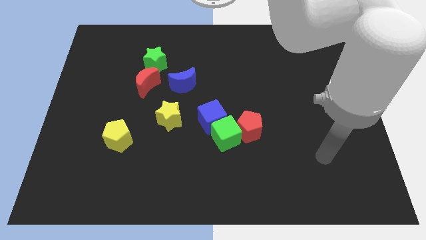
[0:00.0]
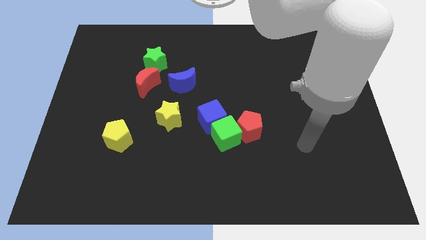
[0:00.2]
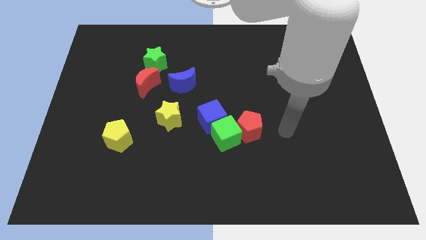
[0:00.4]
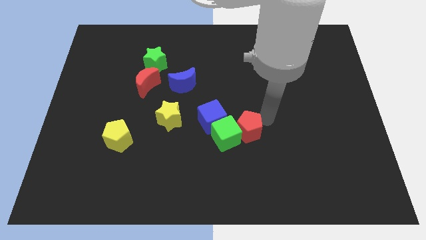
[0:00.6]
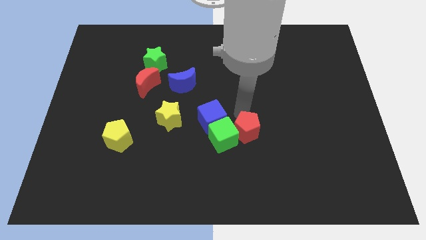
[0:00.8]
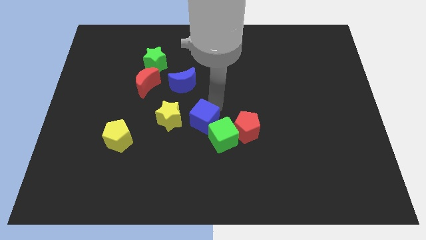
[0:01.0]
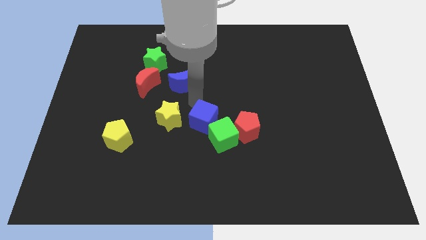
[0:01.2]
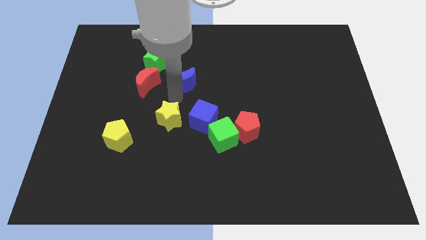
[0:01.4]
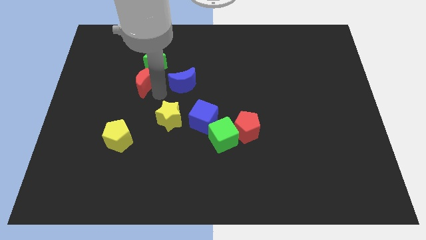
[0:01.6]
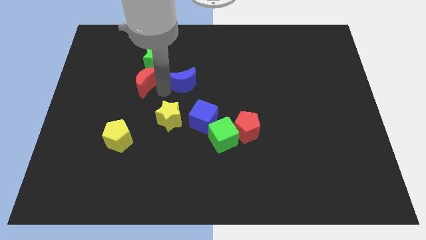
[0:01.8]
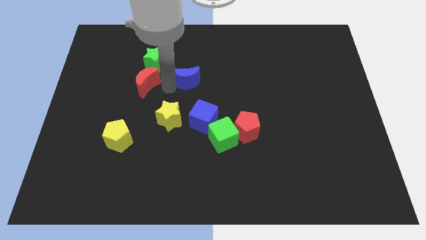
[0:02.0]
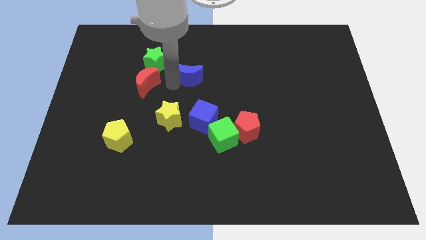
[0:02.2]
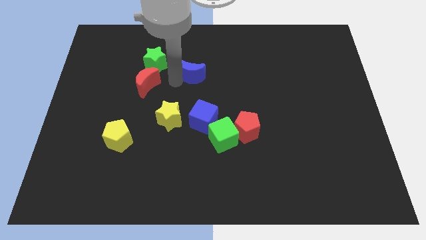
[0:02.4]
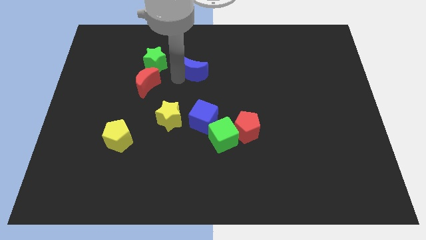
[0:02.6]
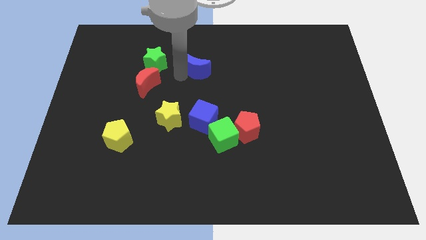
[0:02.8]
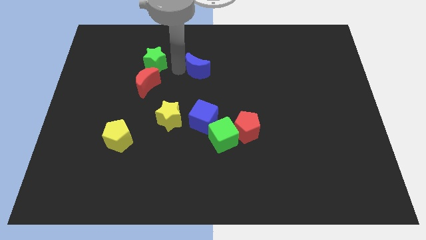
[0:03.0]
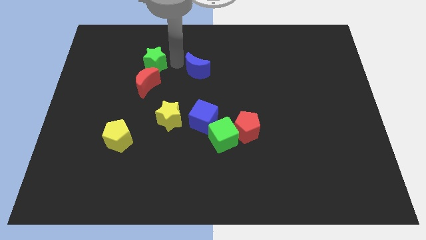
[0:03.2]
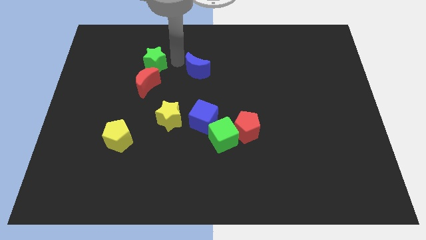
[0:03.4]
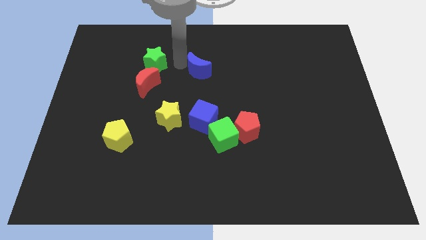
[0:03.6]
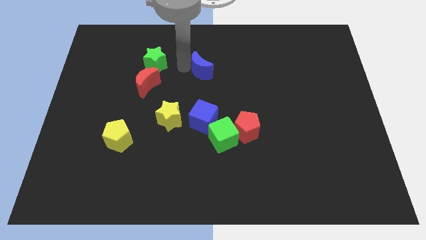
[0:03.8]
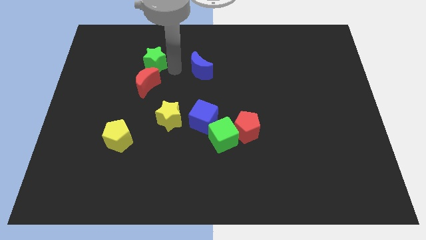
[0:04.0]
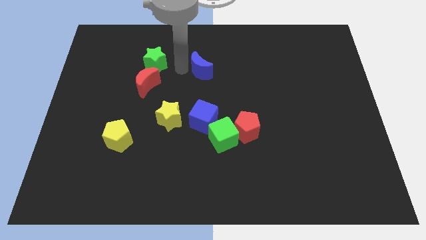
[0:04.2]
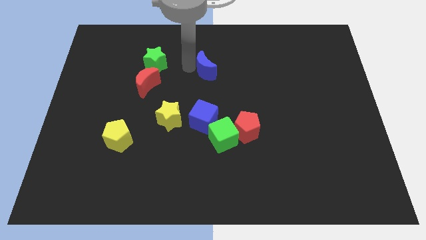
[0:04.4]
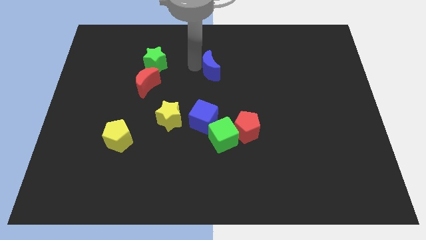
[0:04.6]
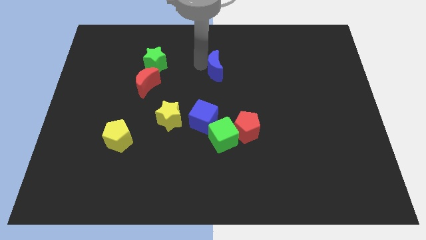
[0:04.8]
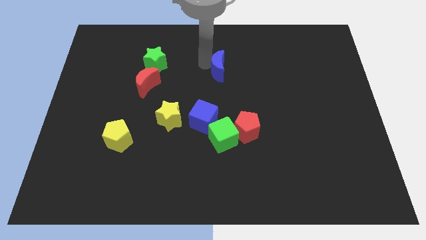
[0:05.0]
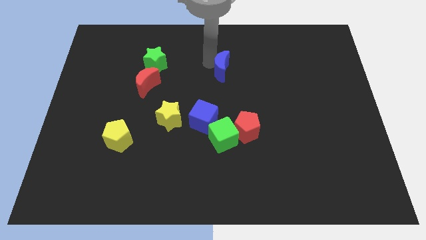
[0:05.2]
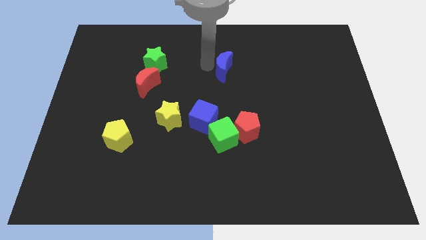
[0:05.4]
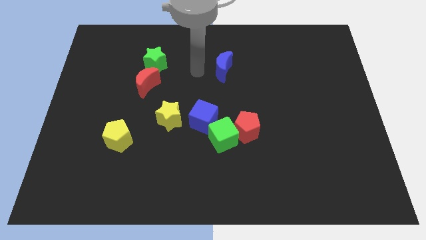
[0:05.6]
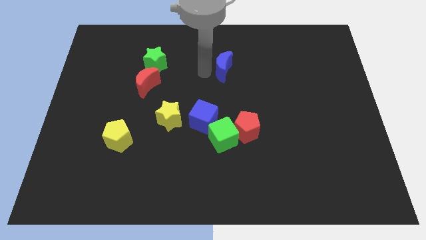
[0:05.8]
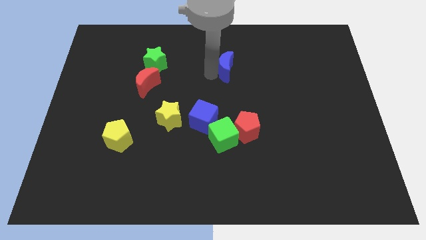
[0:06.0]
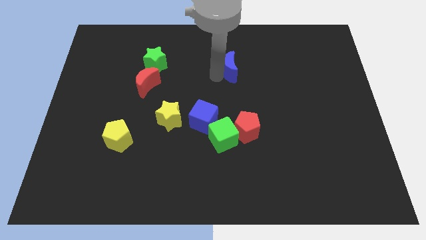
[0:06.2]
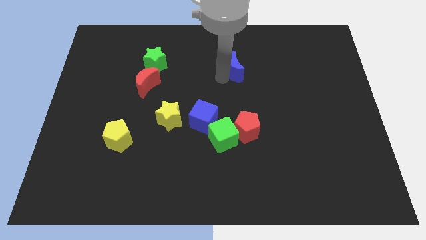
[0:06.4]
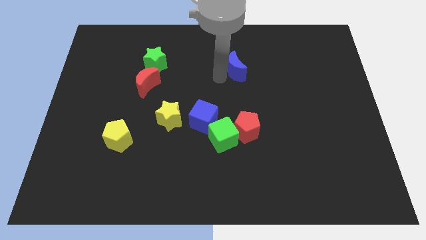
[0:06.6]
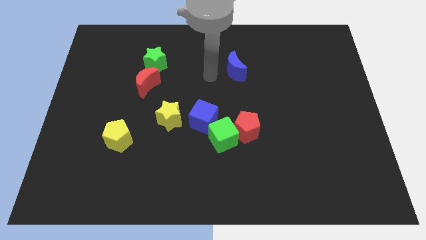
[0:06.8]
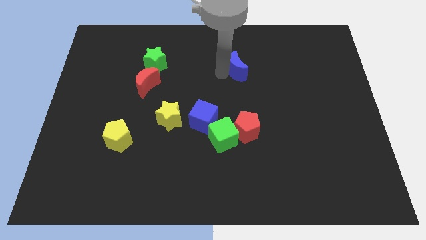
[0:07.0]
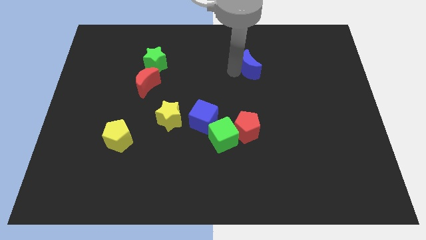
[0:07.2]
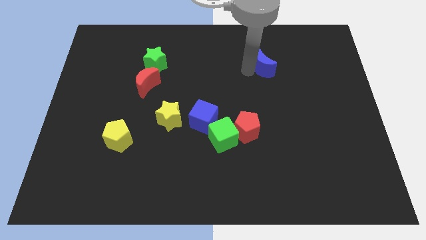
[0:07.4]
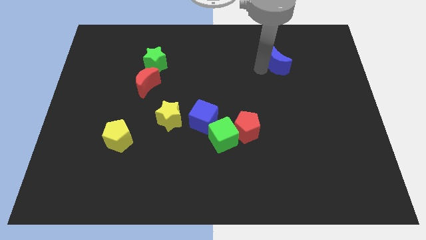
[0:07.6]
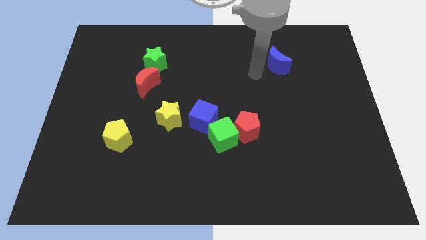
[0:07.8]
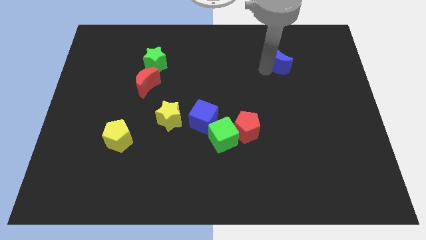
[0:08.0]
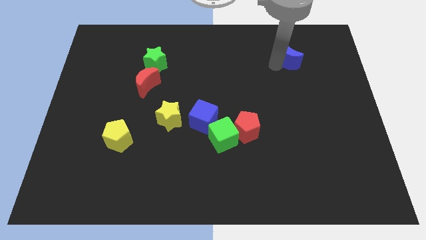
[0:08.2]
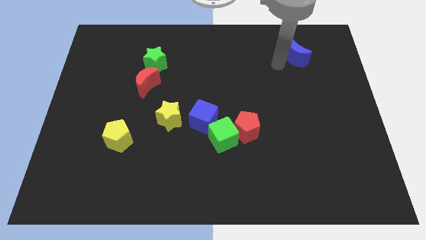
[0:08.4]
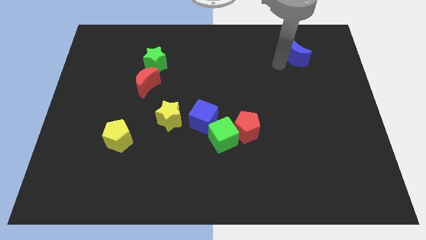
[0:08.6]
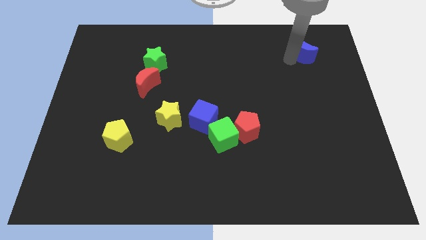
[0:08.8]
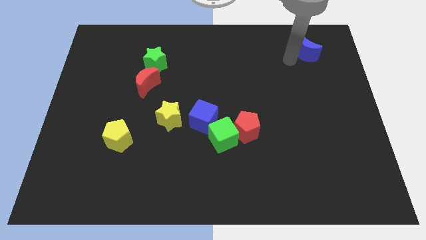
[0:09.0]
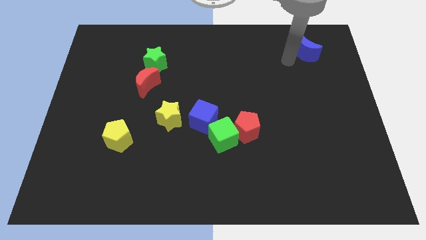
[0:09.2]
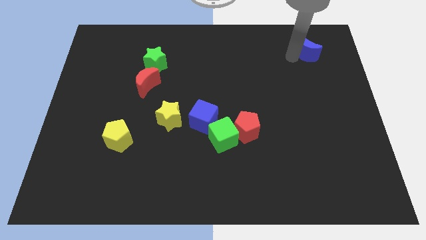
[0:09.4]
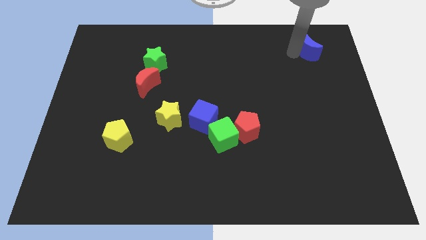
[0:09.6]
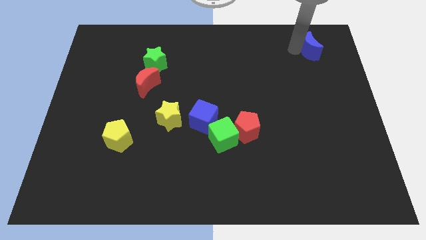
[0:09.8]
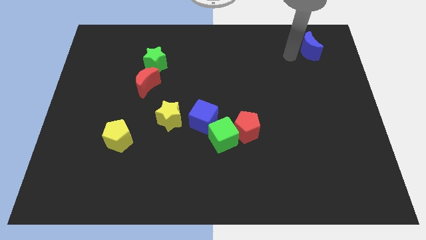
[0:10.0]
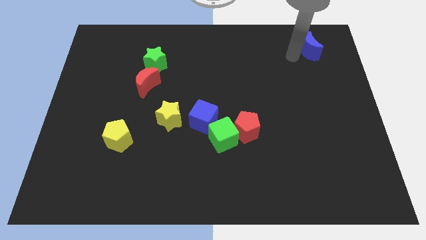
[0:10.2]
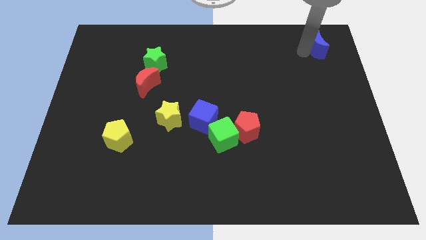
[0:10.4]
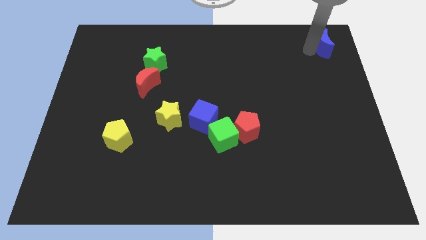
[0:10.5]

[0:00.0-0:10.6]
move the blue moon to the upper right corner
